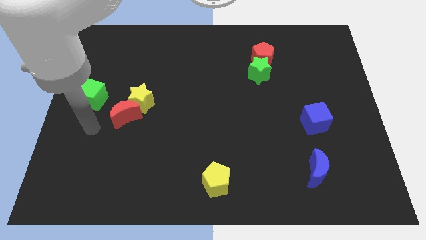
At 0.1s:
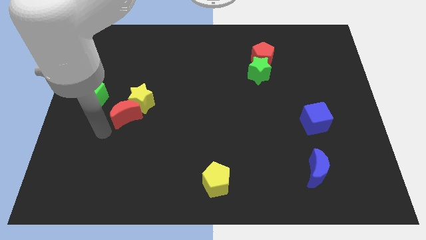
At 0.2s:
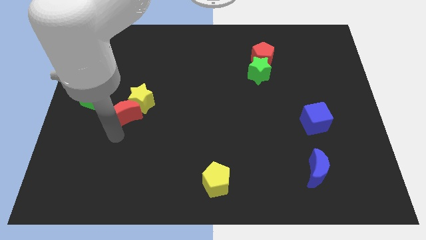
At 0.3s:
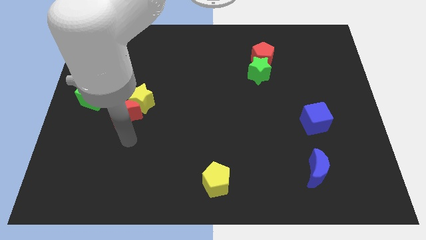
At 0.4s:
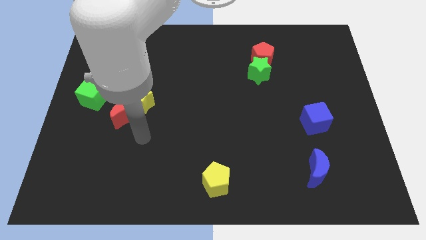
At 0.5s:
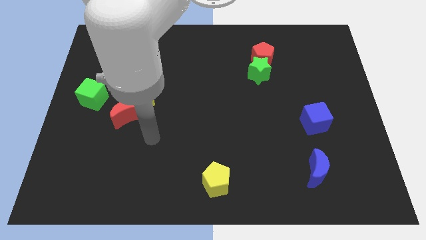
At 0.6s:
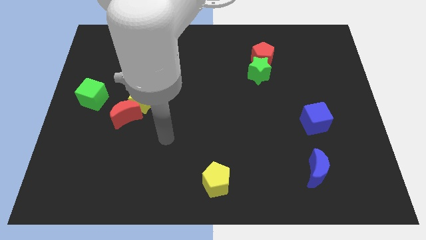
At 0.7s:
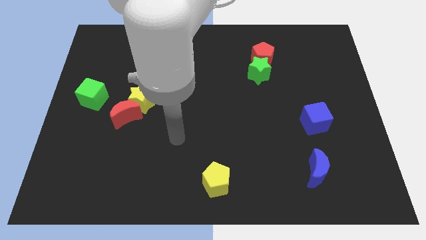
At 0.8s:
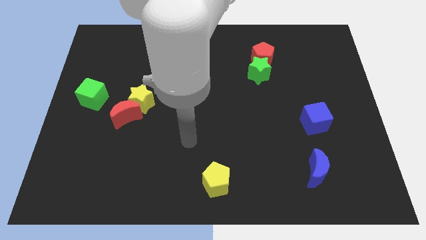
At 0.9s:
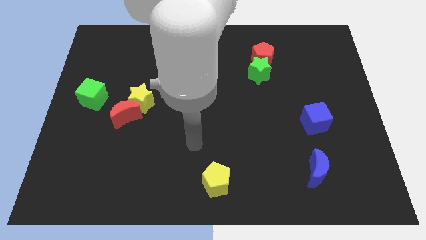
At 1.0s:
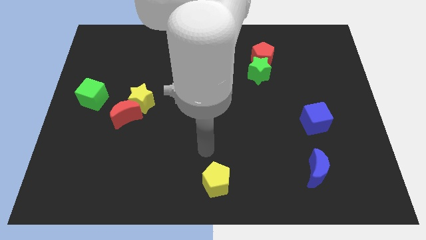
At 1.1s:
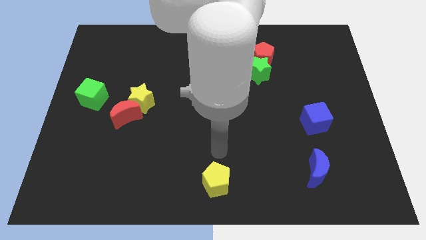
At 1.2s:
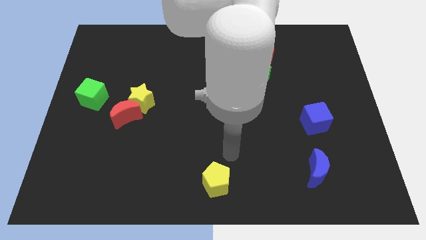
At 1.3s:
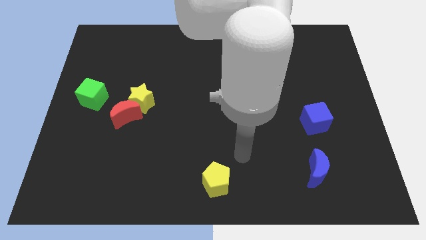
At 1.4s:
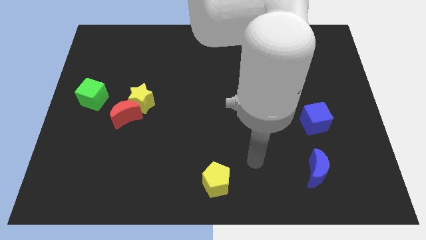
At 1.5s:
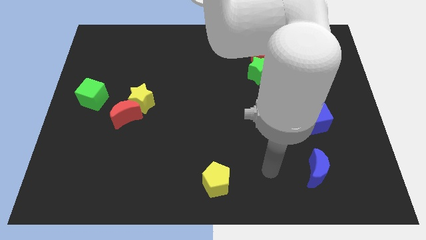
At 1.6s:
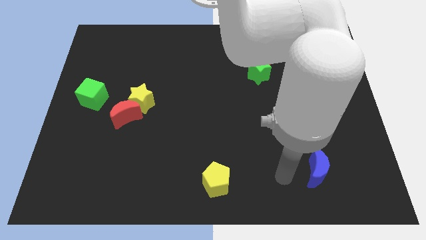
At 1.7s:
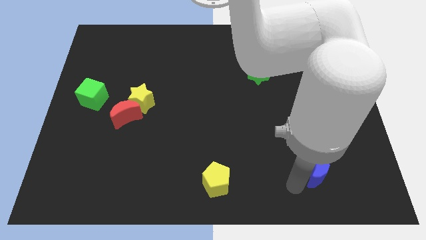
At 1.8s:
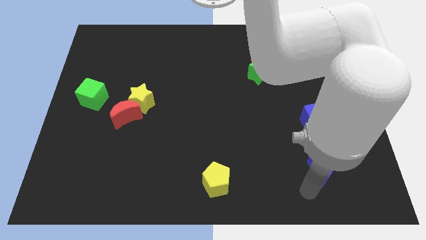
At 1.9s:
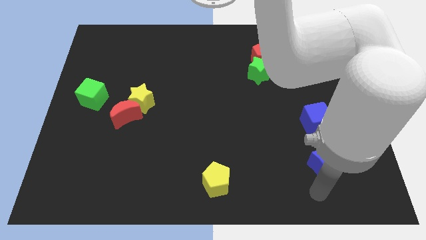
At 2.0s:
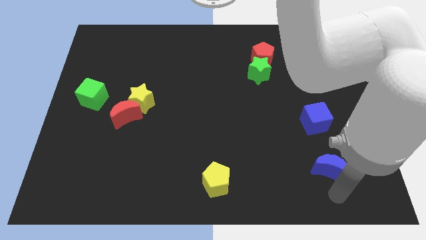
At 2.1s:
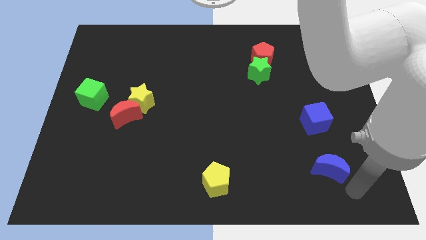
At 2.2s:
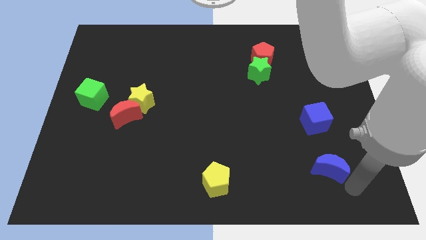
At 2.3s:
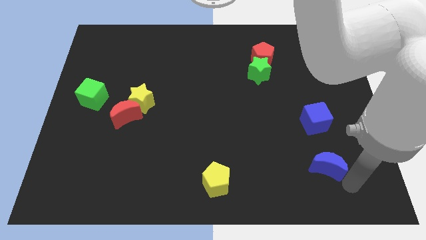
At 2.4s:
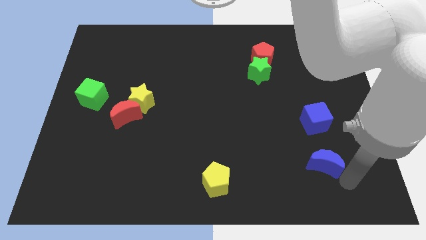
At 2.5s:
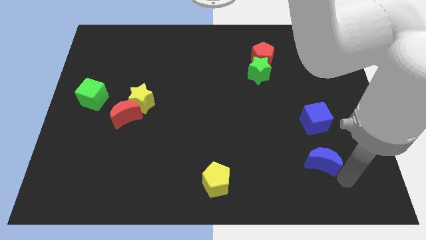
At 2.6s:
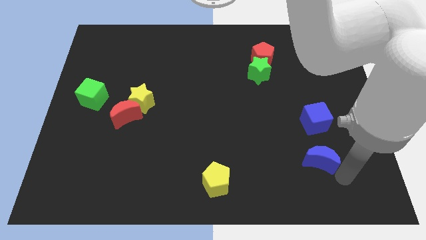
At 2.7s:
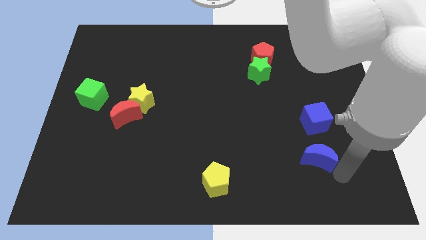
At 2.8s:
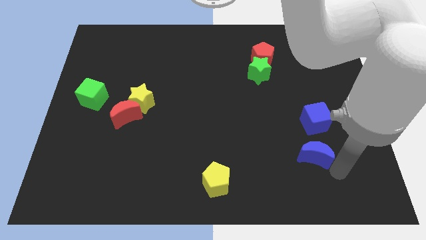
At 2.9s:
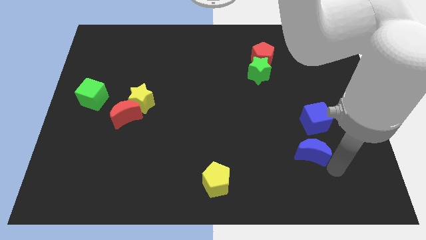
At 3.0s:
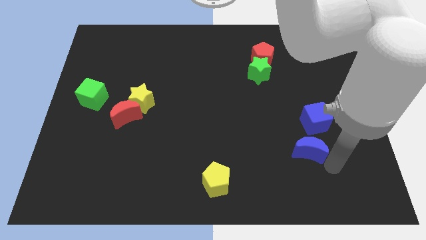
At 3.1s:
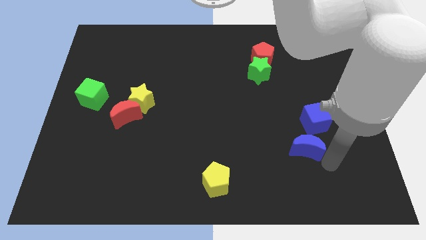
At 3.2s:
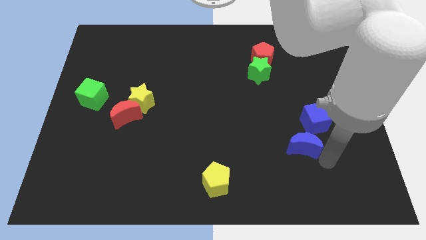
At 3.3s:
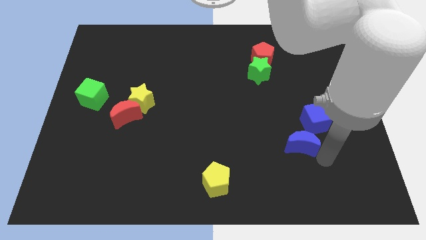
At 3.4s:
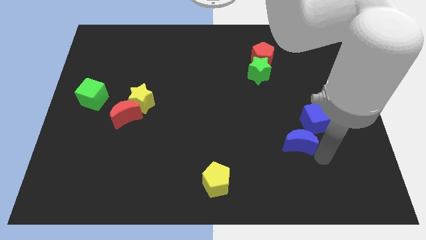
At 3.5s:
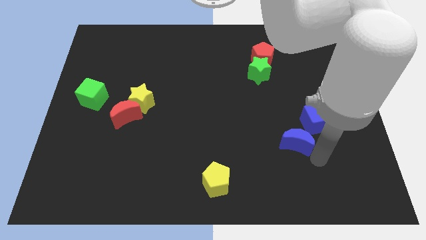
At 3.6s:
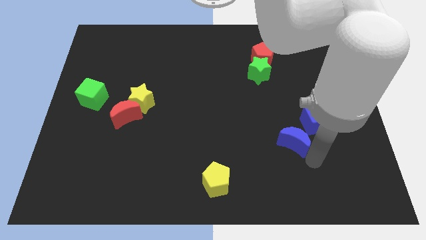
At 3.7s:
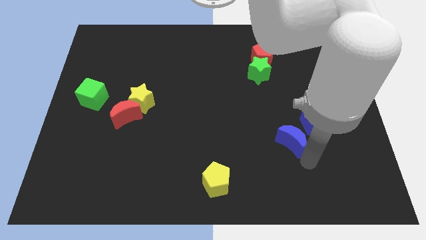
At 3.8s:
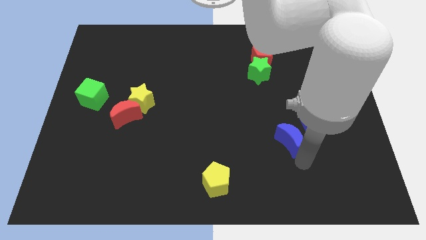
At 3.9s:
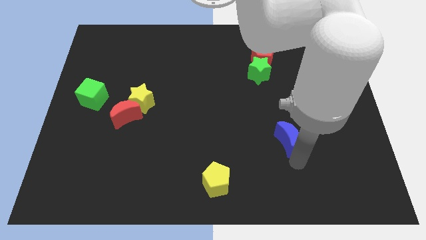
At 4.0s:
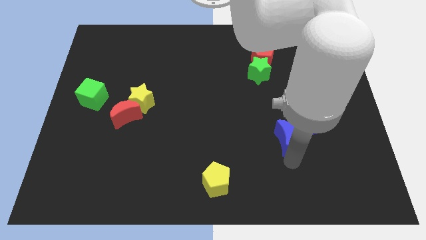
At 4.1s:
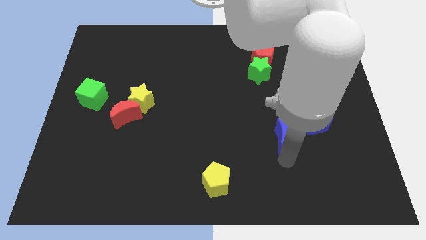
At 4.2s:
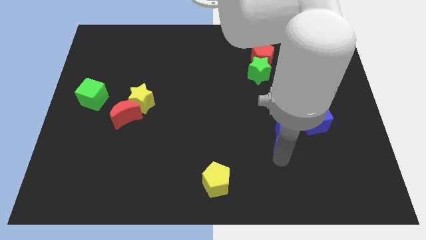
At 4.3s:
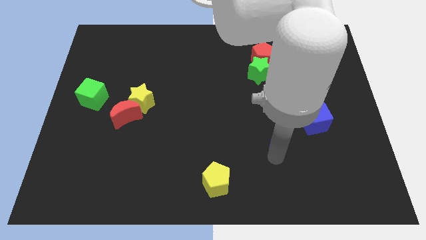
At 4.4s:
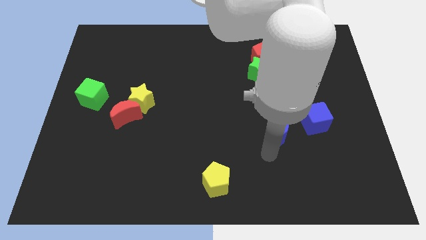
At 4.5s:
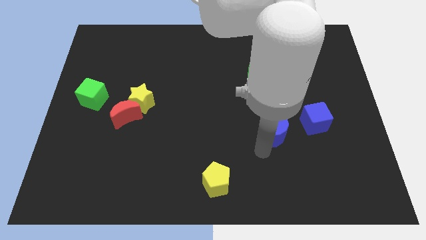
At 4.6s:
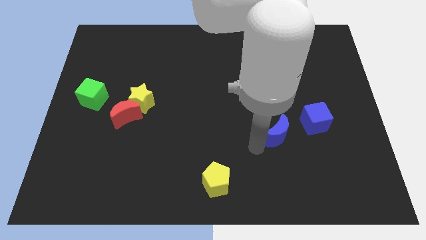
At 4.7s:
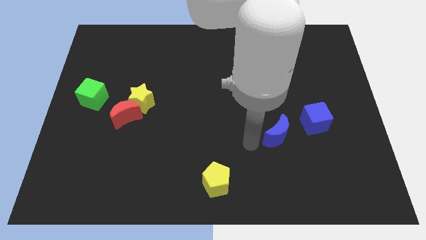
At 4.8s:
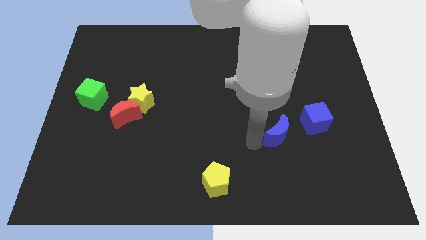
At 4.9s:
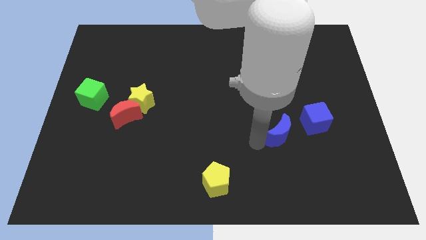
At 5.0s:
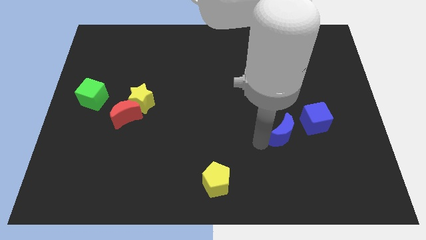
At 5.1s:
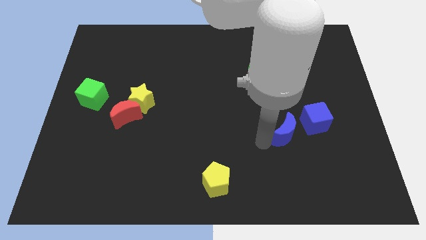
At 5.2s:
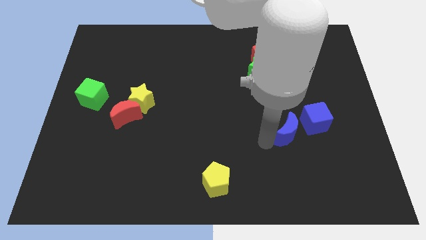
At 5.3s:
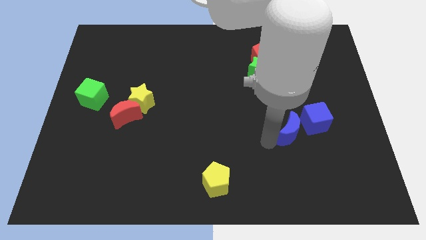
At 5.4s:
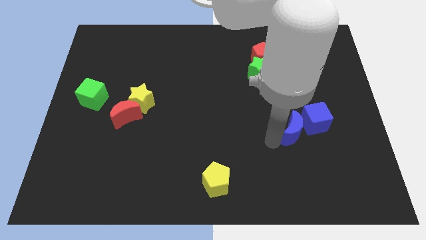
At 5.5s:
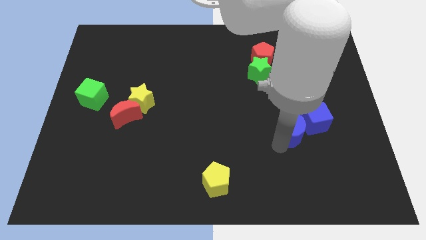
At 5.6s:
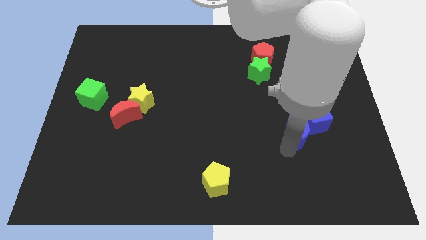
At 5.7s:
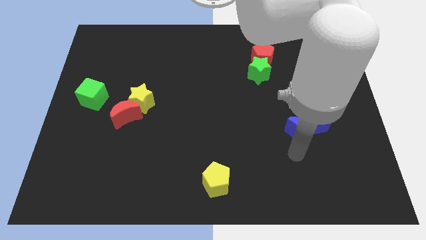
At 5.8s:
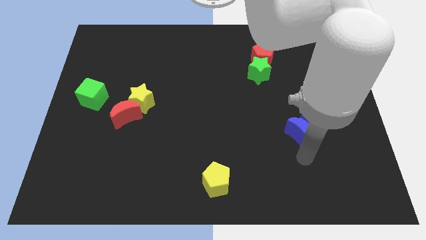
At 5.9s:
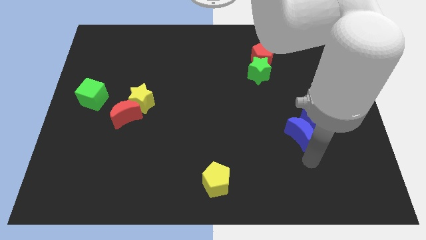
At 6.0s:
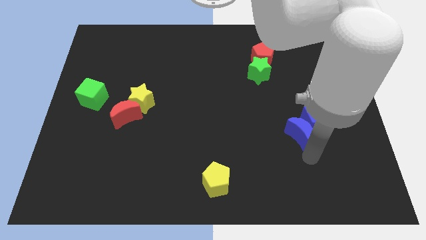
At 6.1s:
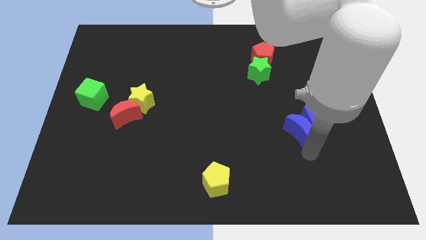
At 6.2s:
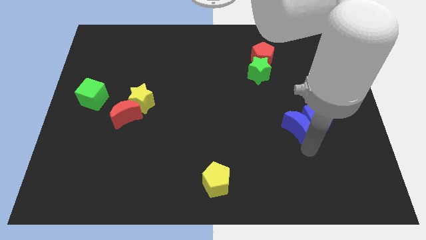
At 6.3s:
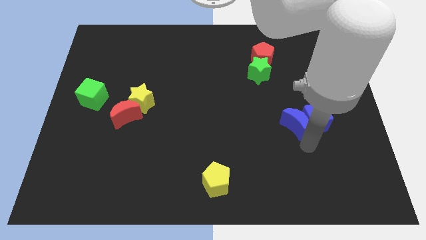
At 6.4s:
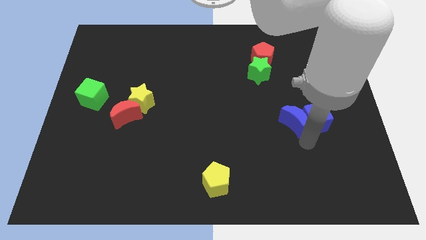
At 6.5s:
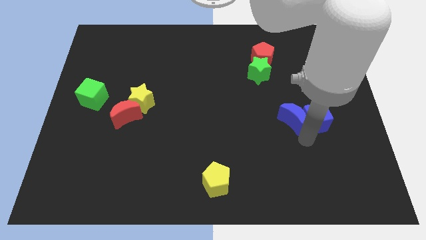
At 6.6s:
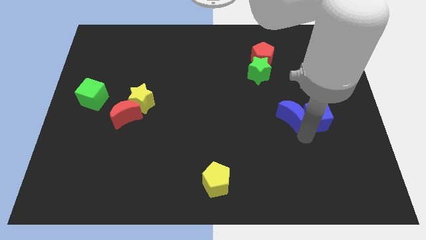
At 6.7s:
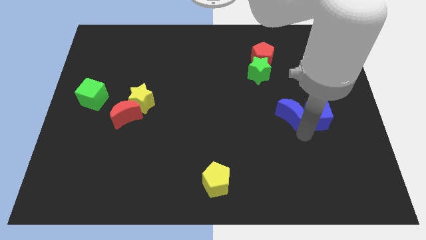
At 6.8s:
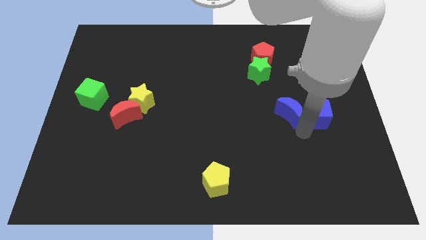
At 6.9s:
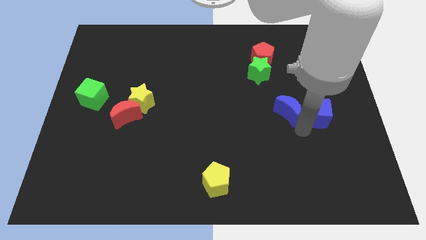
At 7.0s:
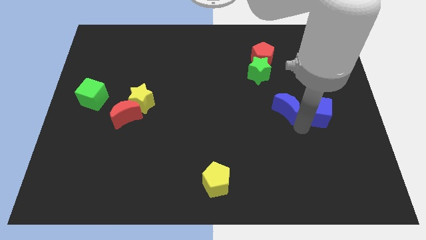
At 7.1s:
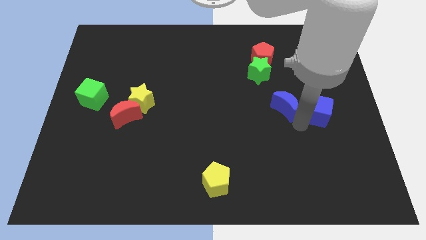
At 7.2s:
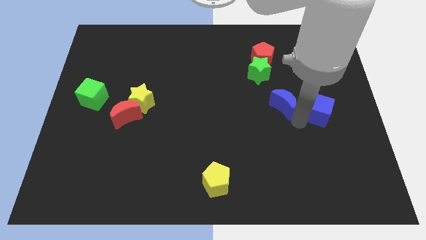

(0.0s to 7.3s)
push the blue moon to the bottom right side of the green star

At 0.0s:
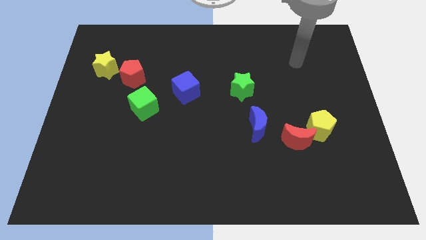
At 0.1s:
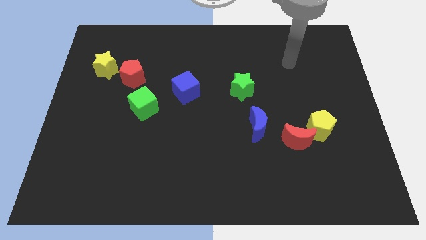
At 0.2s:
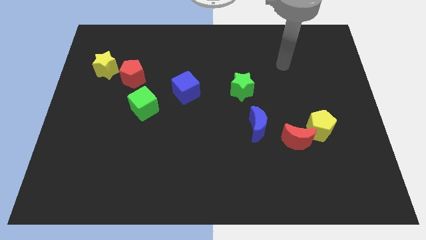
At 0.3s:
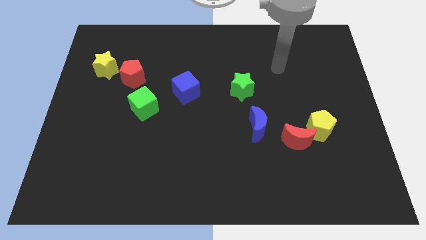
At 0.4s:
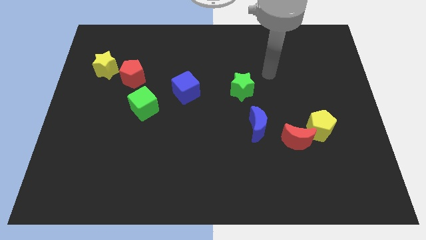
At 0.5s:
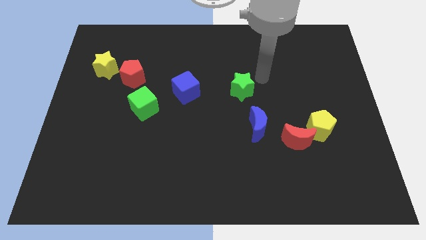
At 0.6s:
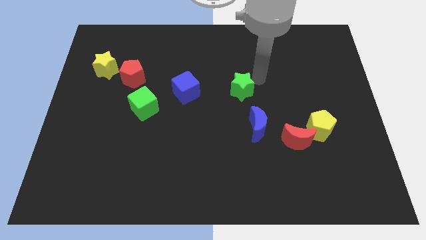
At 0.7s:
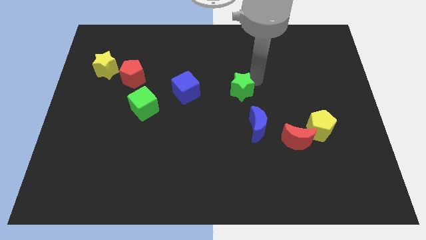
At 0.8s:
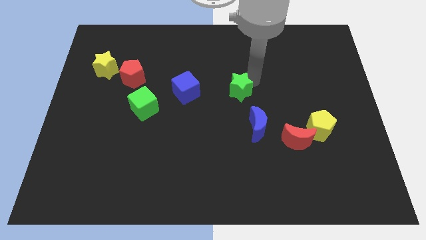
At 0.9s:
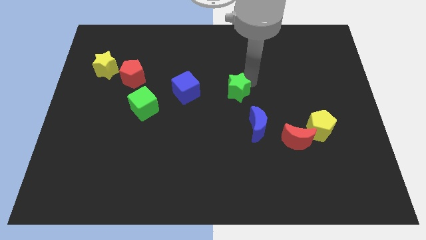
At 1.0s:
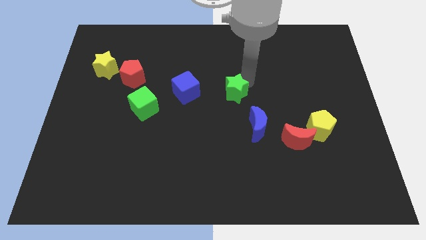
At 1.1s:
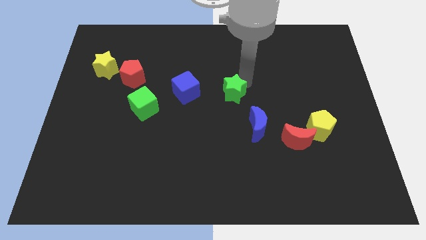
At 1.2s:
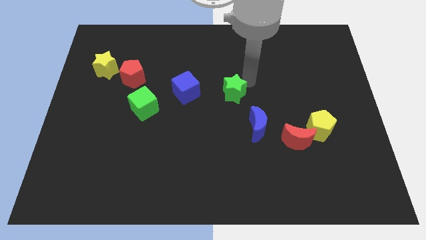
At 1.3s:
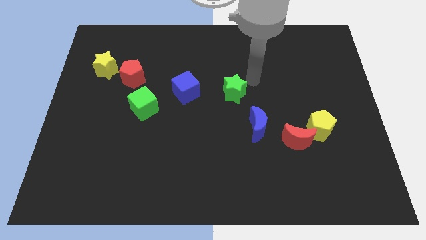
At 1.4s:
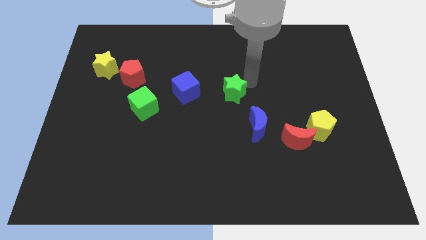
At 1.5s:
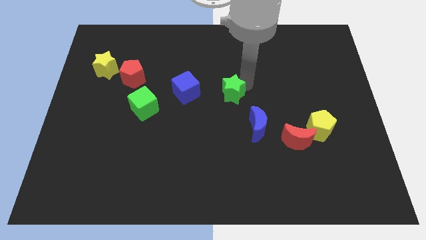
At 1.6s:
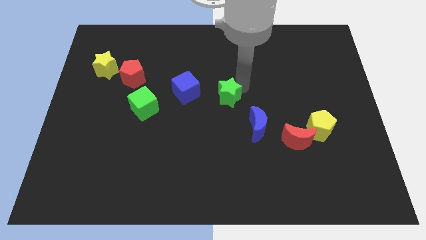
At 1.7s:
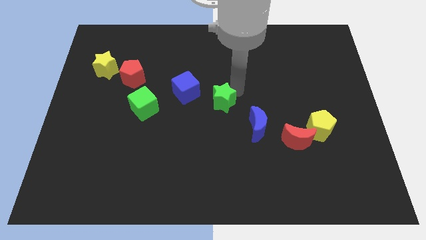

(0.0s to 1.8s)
slide the green star diagonally down and to the right of the blue cube
